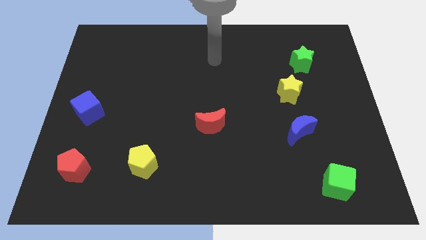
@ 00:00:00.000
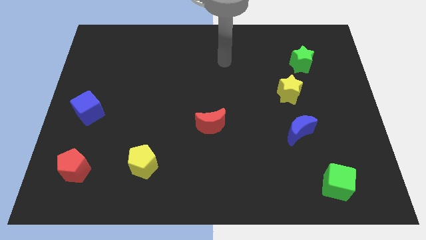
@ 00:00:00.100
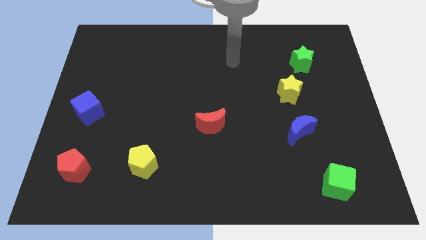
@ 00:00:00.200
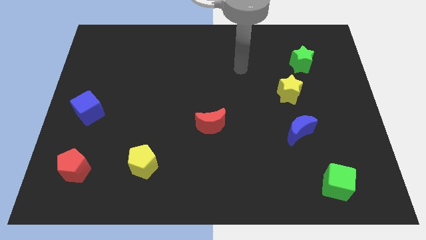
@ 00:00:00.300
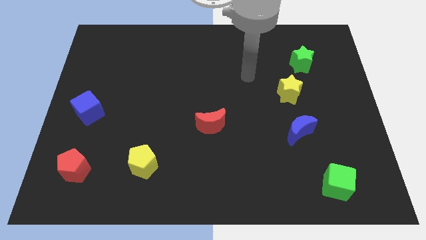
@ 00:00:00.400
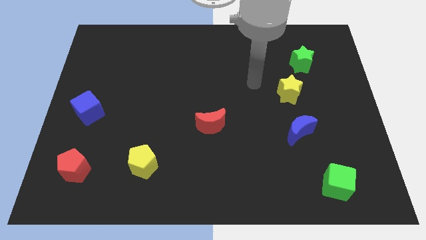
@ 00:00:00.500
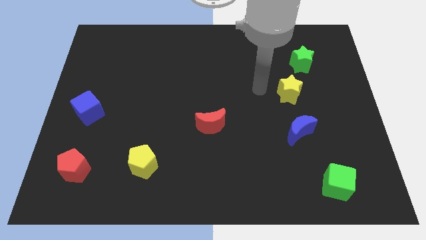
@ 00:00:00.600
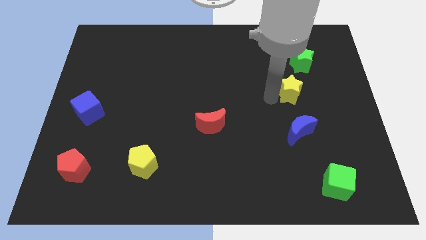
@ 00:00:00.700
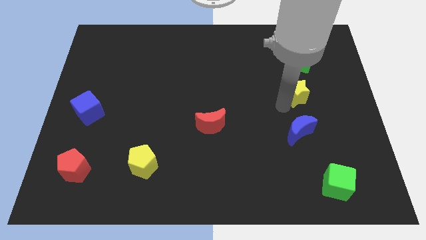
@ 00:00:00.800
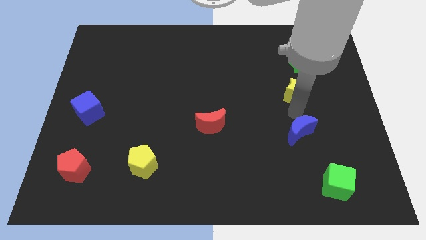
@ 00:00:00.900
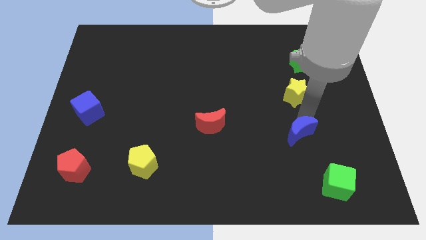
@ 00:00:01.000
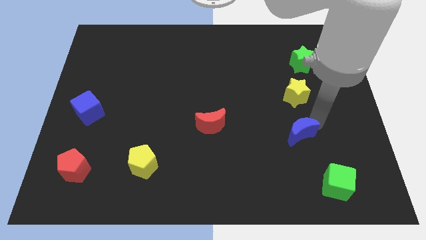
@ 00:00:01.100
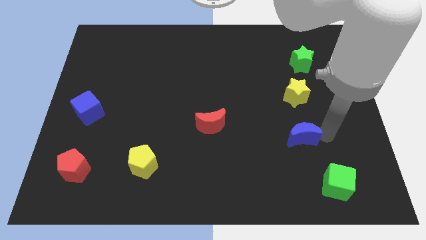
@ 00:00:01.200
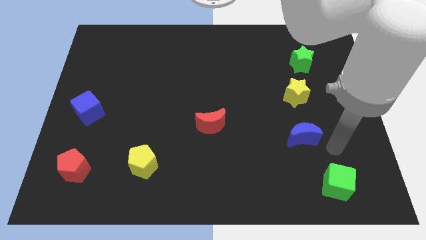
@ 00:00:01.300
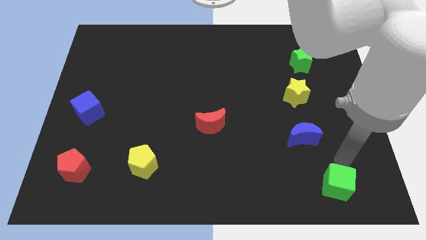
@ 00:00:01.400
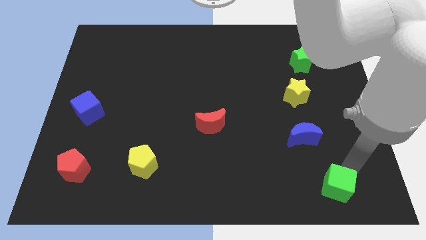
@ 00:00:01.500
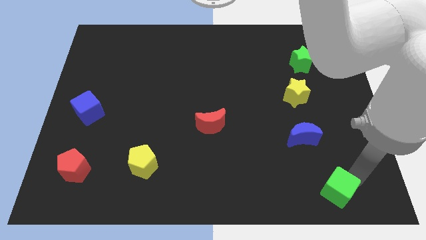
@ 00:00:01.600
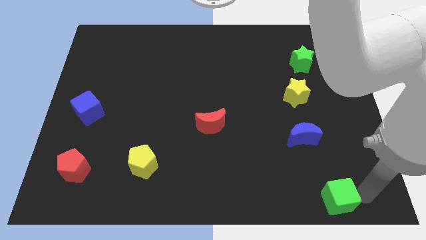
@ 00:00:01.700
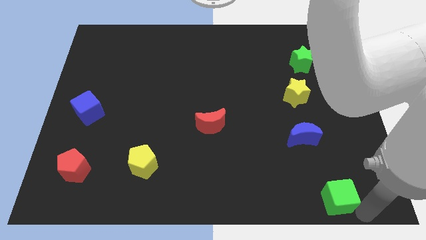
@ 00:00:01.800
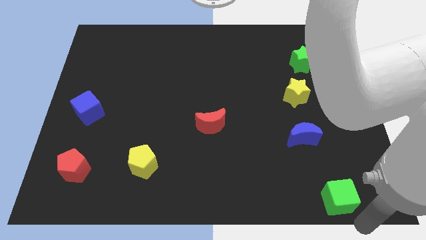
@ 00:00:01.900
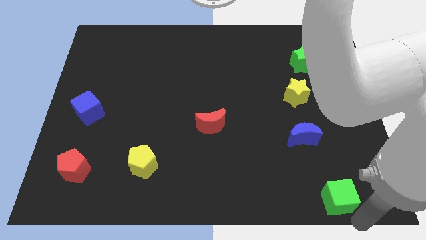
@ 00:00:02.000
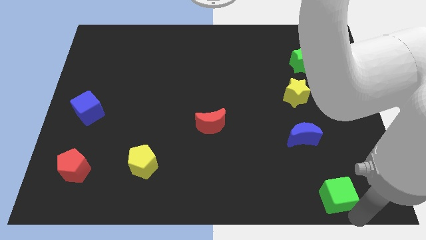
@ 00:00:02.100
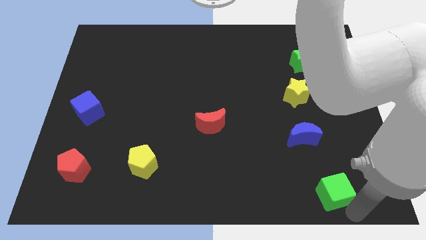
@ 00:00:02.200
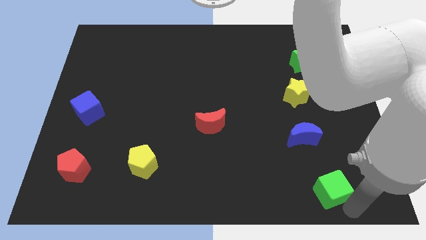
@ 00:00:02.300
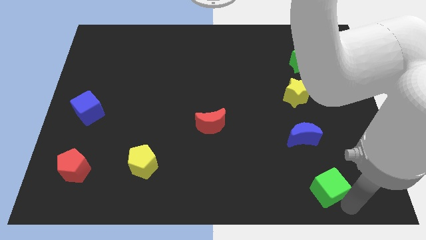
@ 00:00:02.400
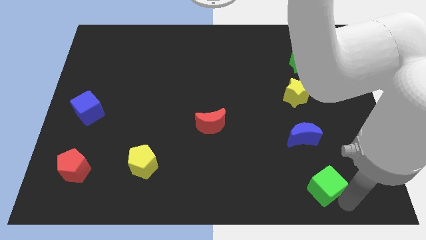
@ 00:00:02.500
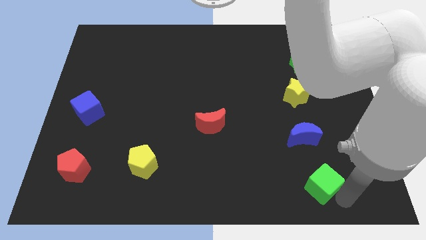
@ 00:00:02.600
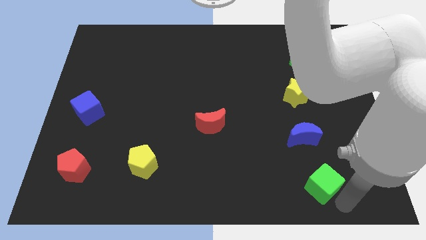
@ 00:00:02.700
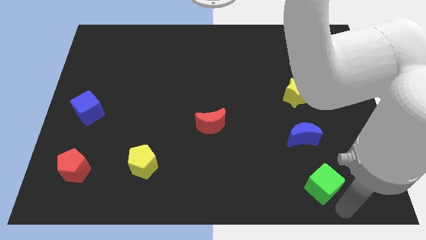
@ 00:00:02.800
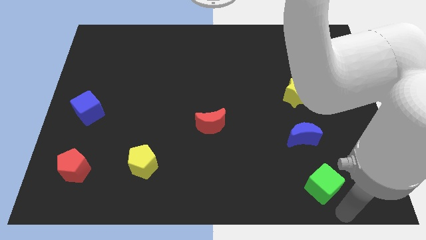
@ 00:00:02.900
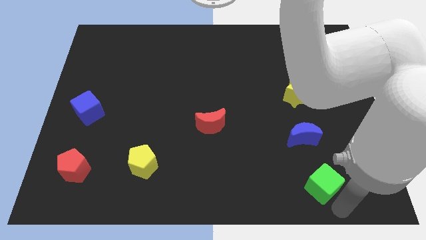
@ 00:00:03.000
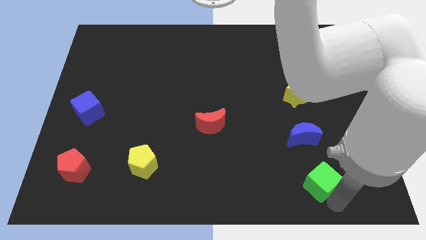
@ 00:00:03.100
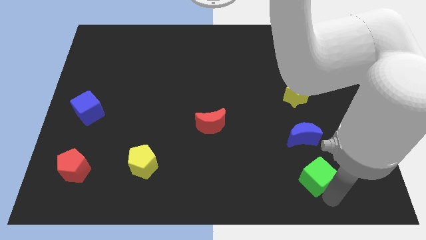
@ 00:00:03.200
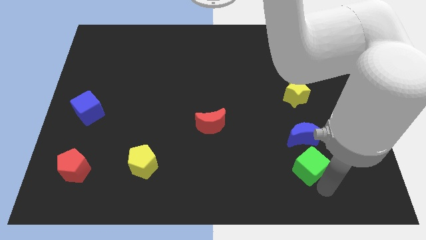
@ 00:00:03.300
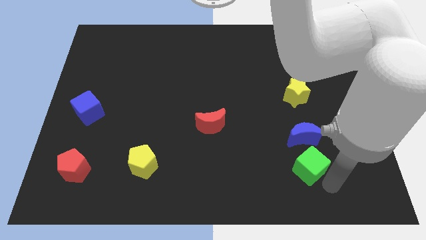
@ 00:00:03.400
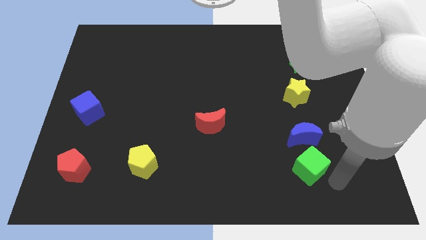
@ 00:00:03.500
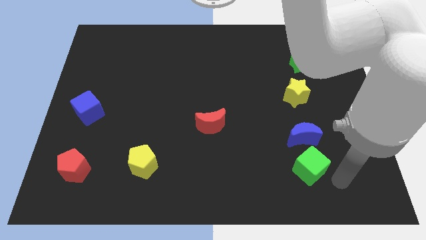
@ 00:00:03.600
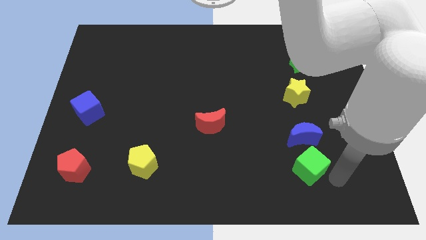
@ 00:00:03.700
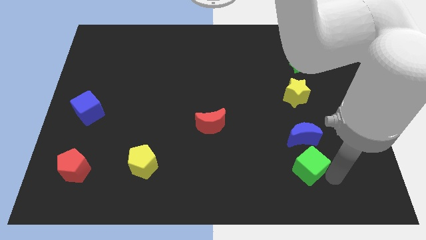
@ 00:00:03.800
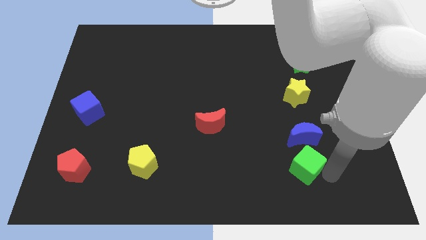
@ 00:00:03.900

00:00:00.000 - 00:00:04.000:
slide the green cube to the bottom left of the blue moon

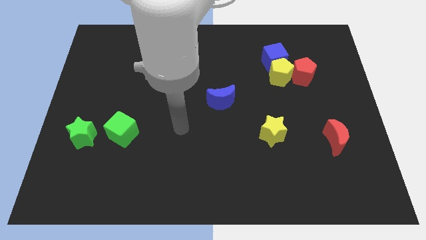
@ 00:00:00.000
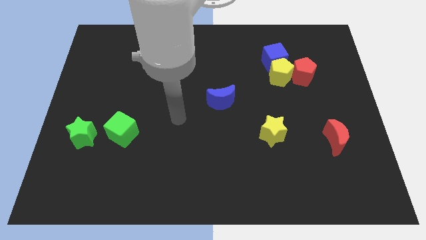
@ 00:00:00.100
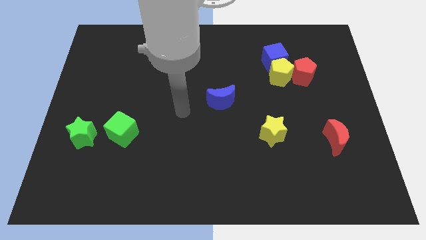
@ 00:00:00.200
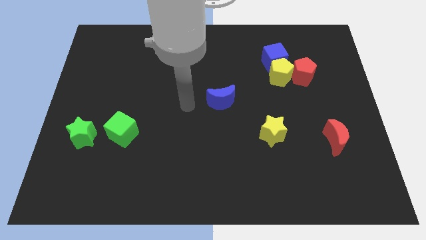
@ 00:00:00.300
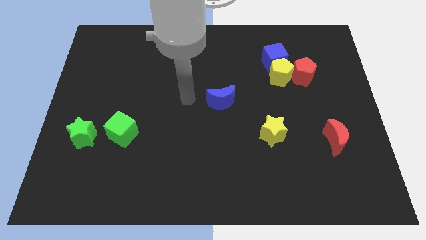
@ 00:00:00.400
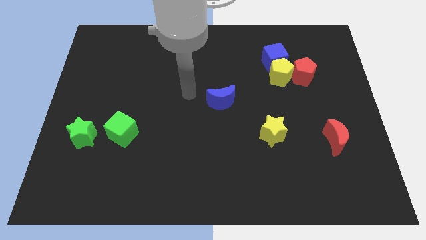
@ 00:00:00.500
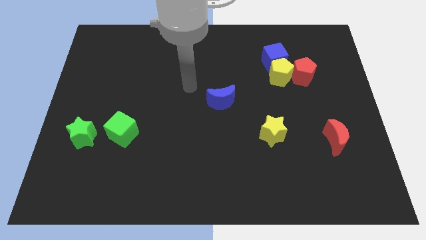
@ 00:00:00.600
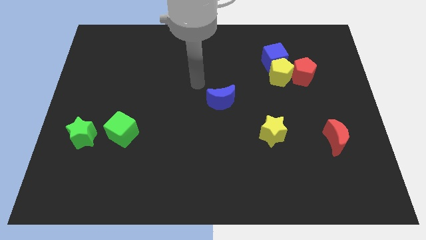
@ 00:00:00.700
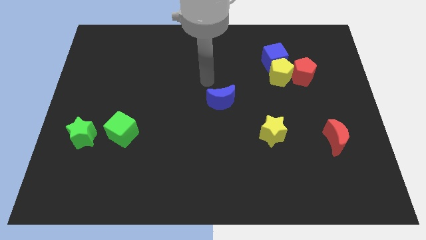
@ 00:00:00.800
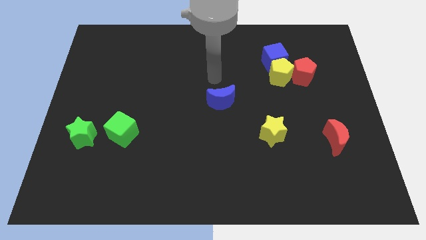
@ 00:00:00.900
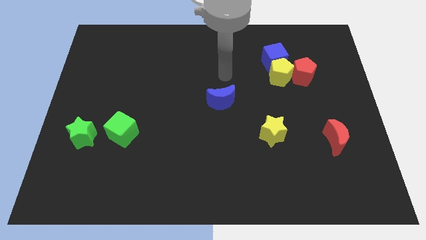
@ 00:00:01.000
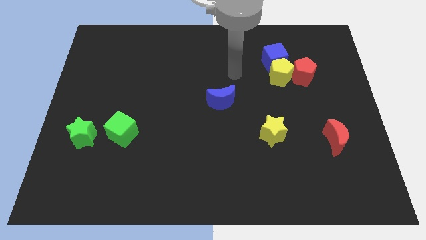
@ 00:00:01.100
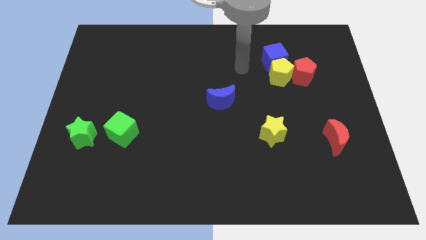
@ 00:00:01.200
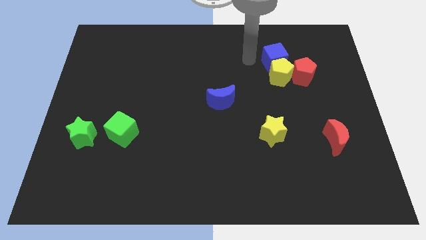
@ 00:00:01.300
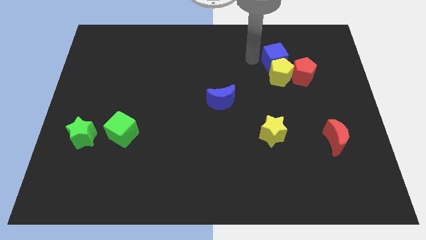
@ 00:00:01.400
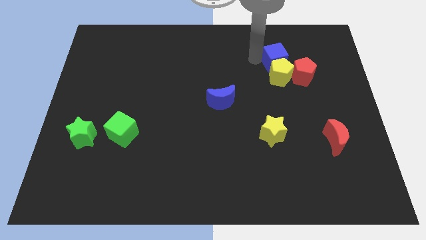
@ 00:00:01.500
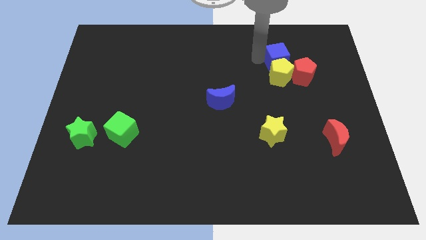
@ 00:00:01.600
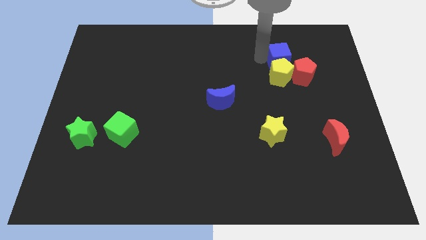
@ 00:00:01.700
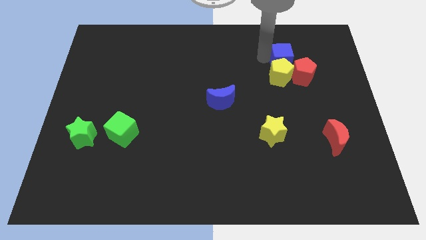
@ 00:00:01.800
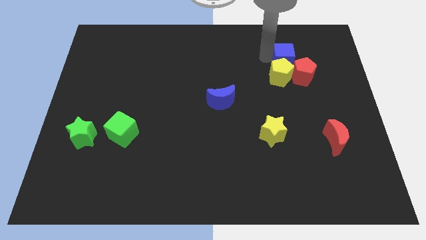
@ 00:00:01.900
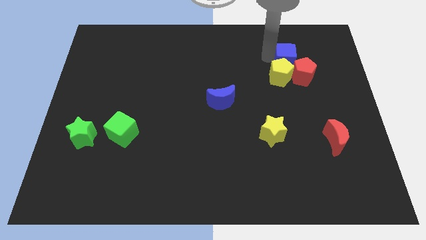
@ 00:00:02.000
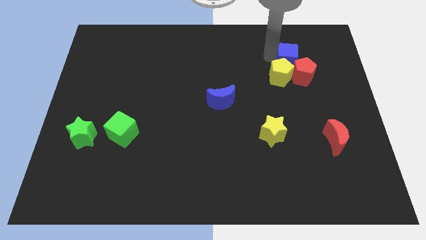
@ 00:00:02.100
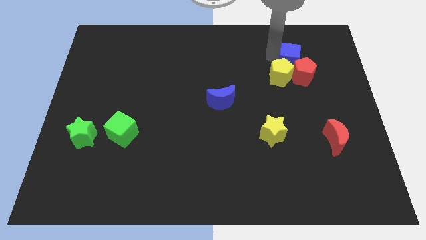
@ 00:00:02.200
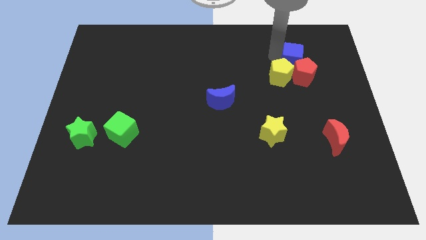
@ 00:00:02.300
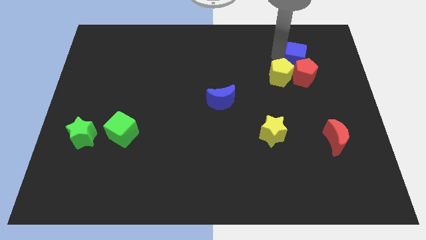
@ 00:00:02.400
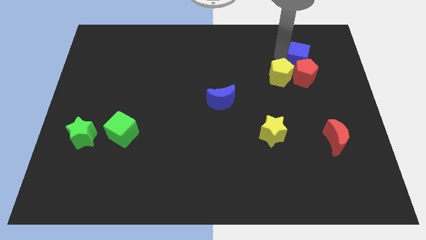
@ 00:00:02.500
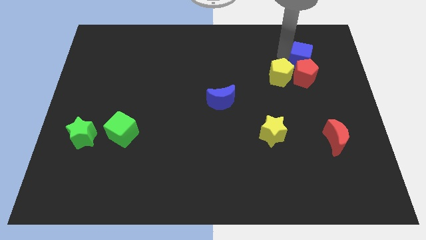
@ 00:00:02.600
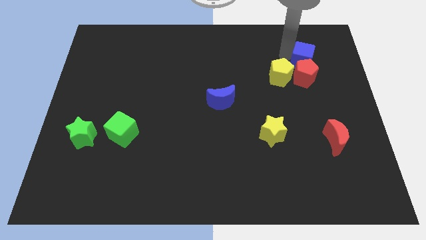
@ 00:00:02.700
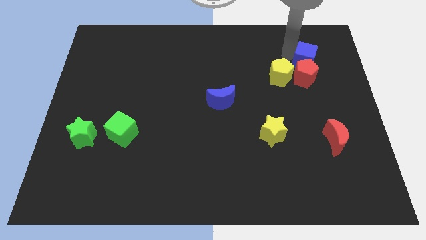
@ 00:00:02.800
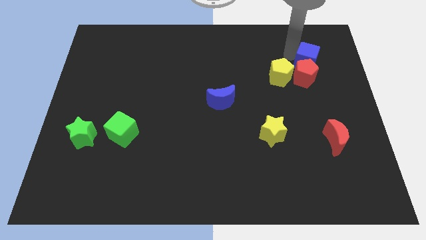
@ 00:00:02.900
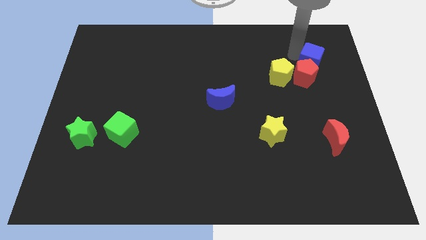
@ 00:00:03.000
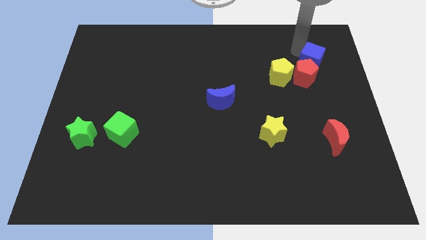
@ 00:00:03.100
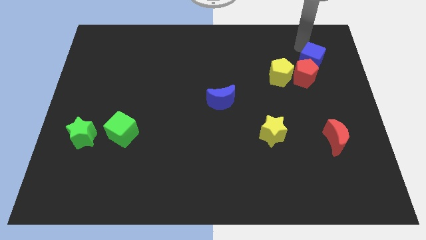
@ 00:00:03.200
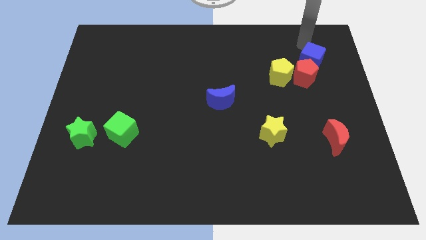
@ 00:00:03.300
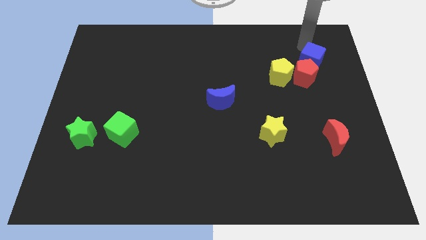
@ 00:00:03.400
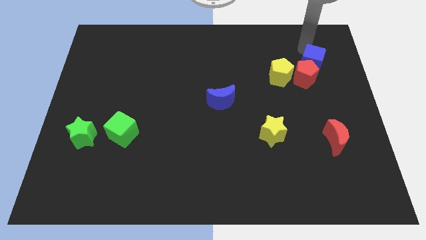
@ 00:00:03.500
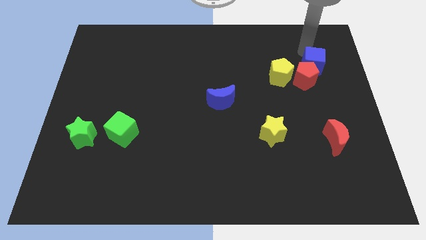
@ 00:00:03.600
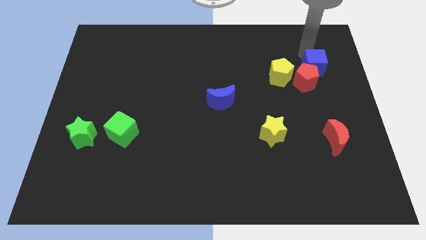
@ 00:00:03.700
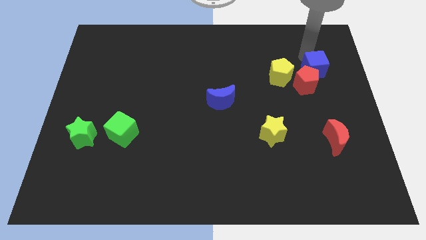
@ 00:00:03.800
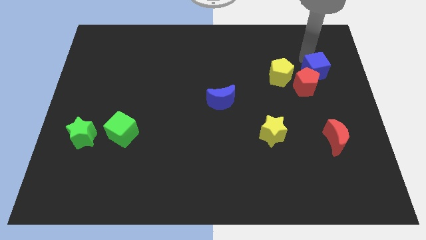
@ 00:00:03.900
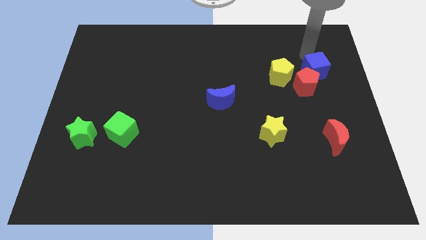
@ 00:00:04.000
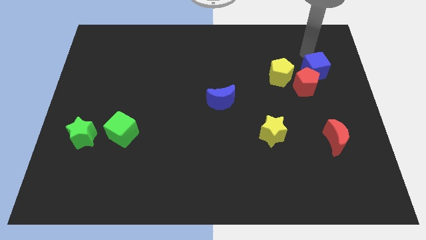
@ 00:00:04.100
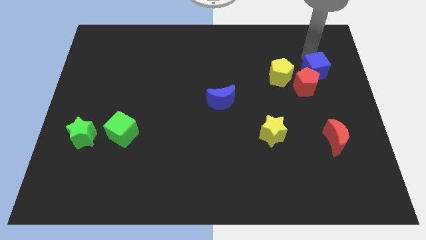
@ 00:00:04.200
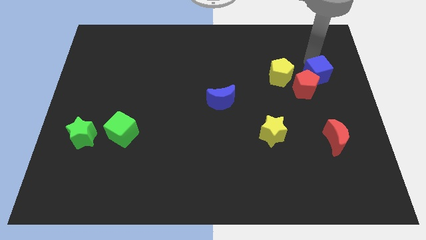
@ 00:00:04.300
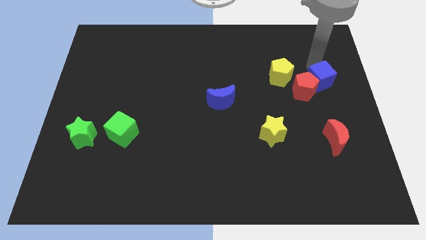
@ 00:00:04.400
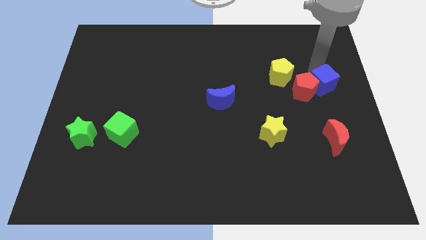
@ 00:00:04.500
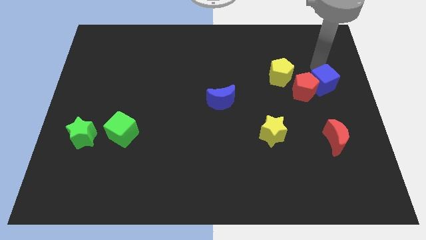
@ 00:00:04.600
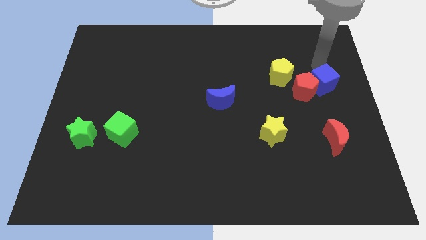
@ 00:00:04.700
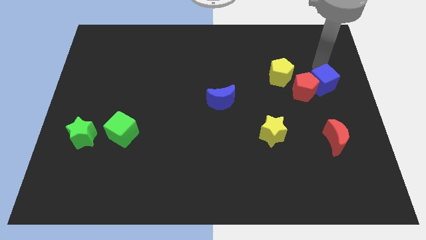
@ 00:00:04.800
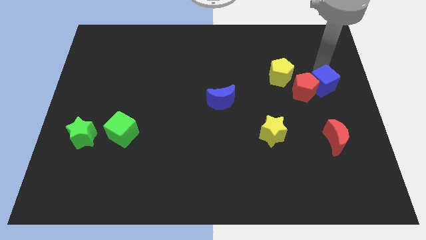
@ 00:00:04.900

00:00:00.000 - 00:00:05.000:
move the blue cube to the top side of the red moon
